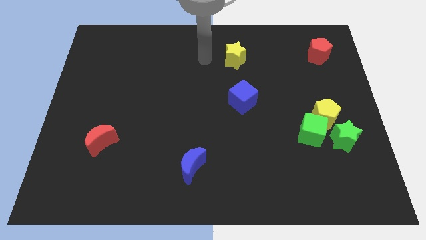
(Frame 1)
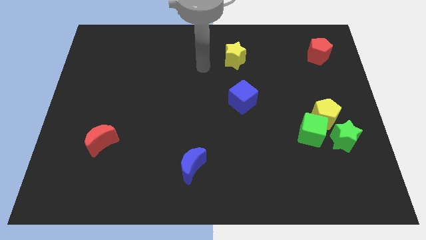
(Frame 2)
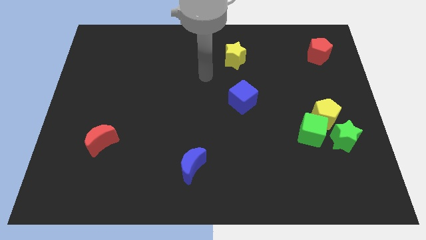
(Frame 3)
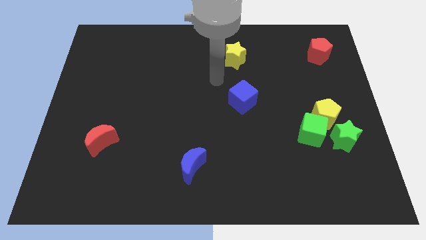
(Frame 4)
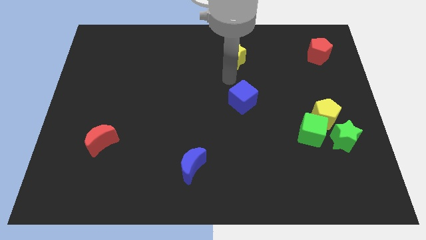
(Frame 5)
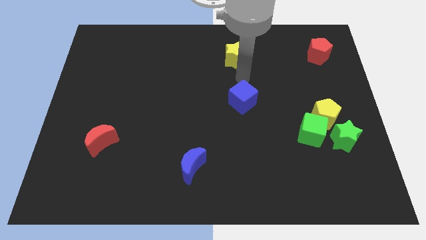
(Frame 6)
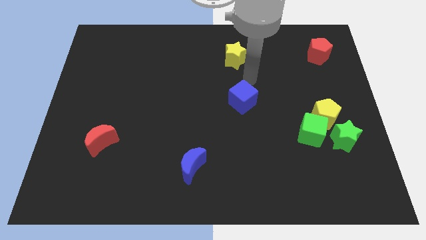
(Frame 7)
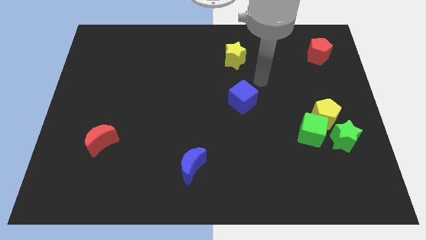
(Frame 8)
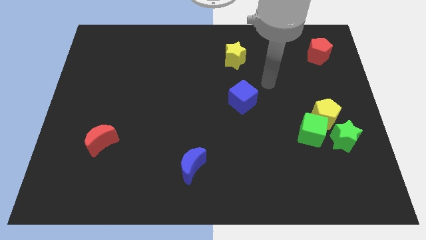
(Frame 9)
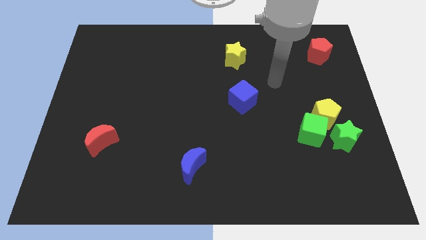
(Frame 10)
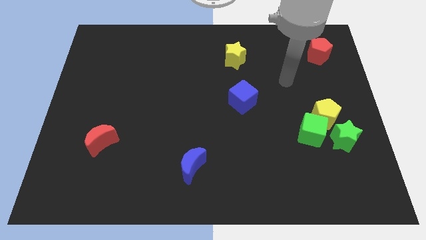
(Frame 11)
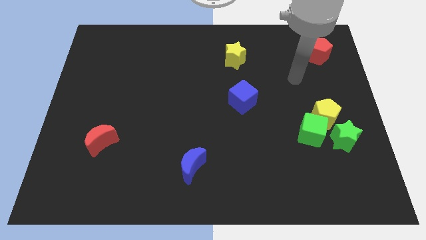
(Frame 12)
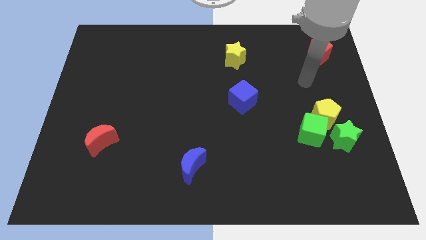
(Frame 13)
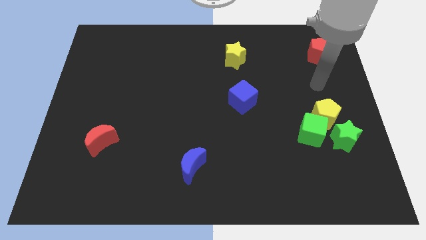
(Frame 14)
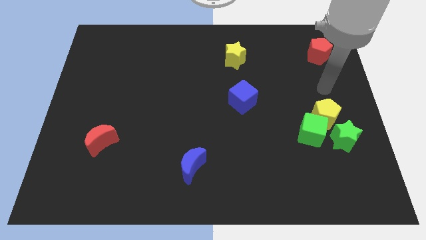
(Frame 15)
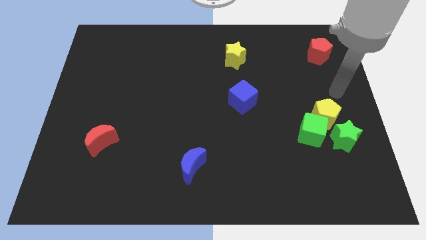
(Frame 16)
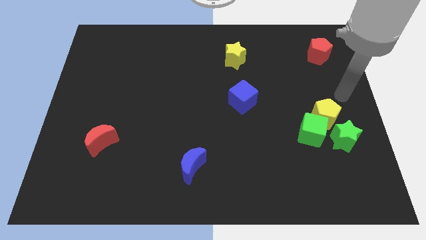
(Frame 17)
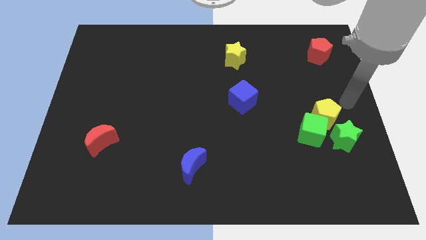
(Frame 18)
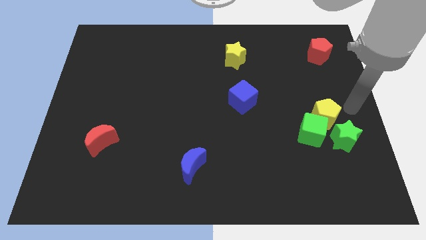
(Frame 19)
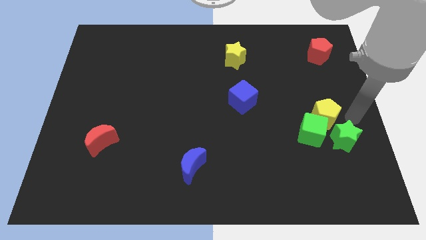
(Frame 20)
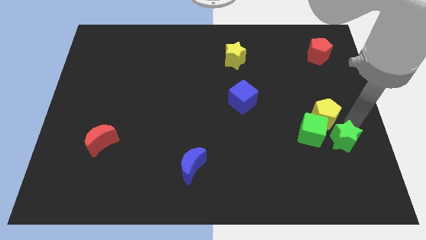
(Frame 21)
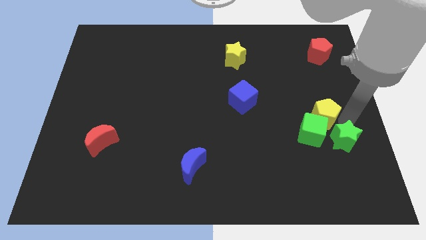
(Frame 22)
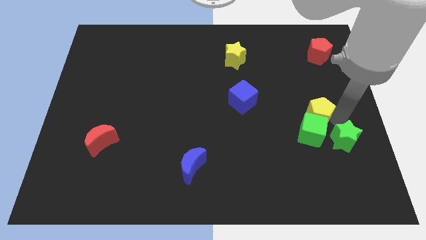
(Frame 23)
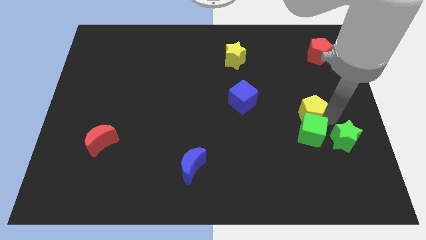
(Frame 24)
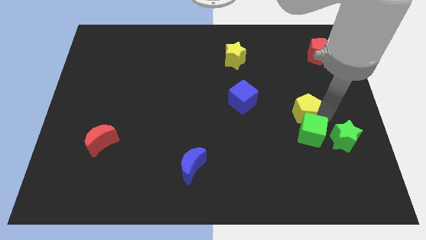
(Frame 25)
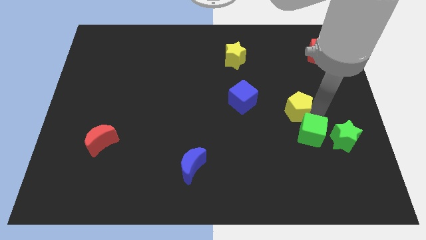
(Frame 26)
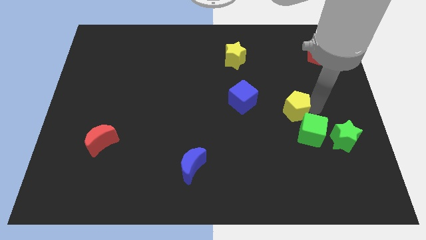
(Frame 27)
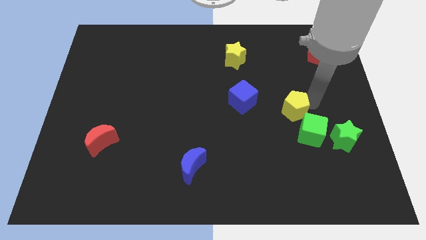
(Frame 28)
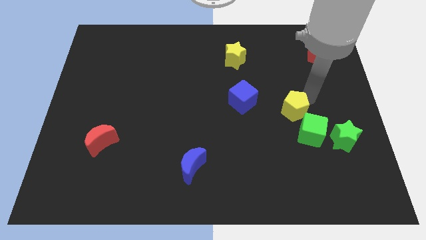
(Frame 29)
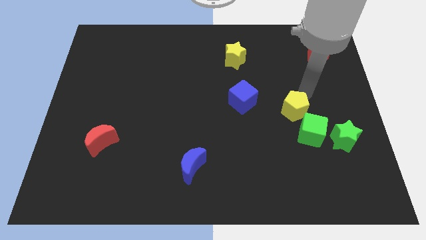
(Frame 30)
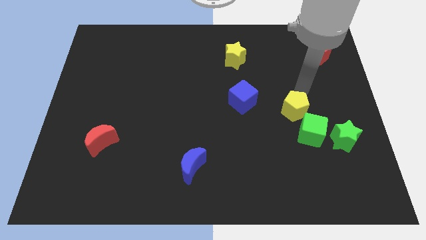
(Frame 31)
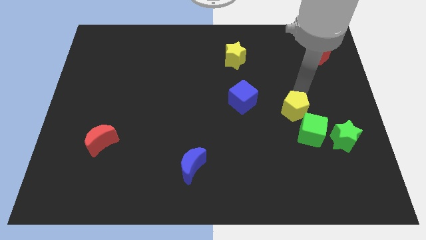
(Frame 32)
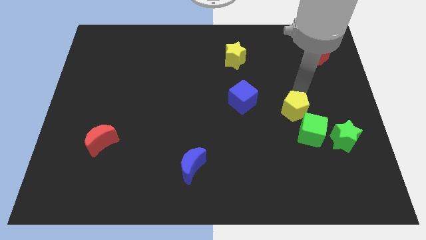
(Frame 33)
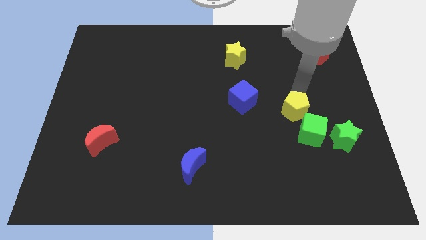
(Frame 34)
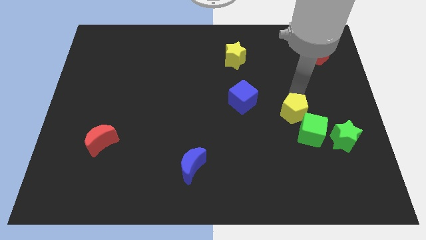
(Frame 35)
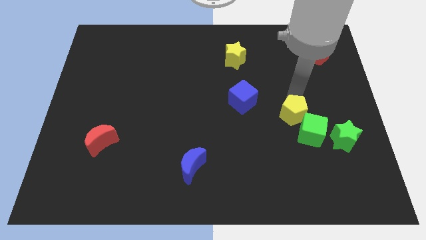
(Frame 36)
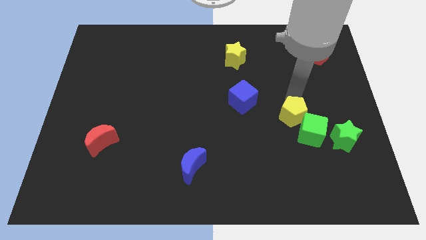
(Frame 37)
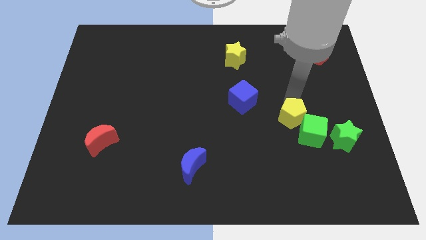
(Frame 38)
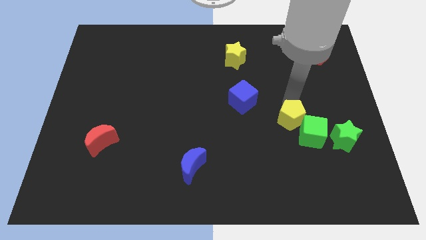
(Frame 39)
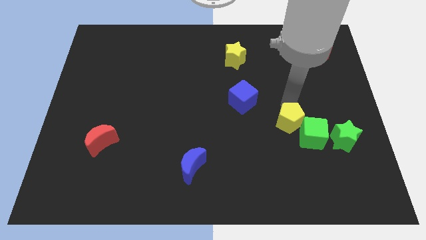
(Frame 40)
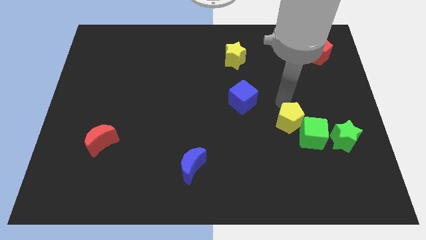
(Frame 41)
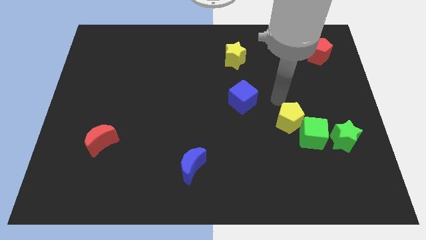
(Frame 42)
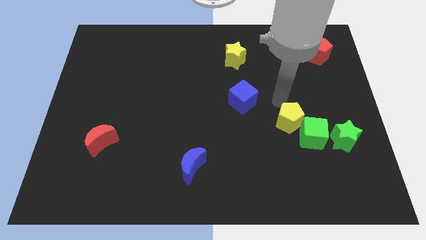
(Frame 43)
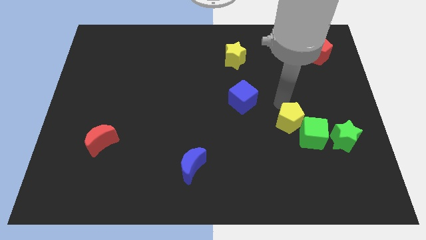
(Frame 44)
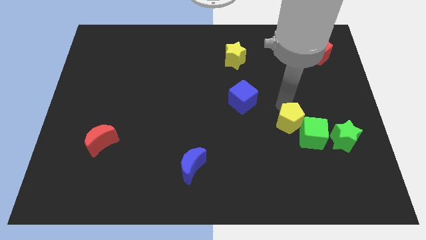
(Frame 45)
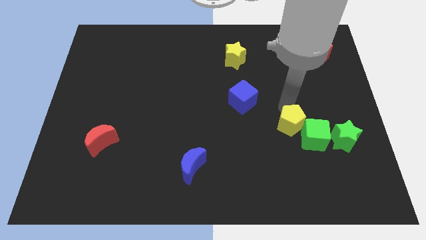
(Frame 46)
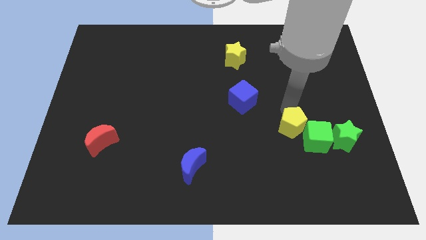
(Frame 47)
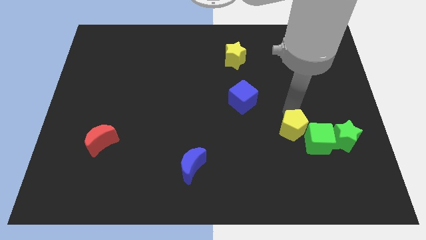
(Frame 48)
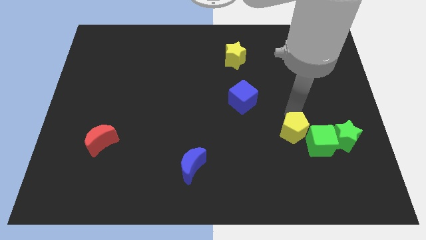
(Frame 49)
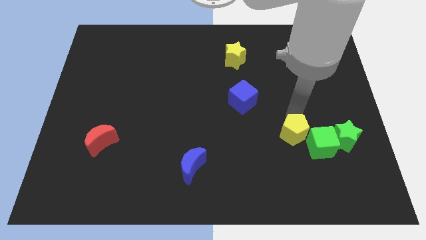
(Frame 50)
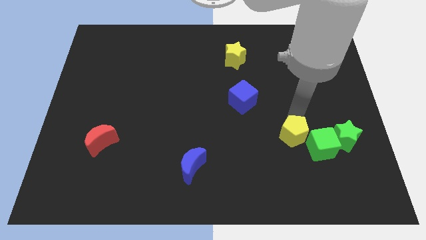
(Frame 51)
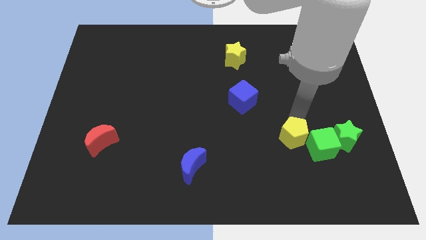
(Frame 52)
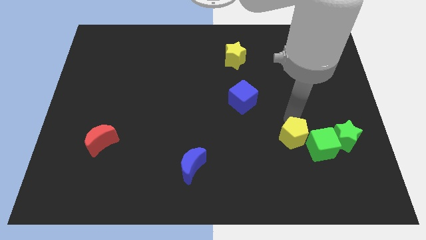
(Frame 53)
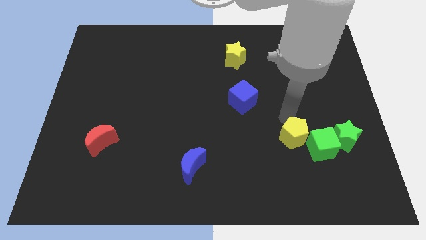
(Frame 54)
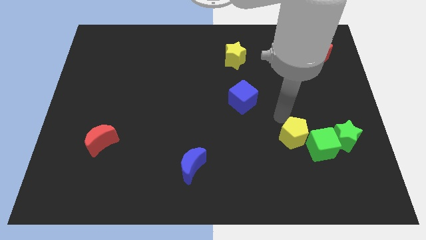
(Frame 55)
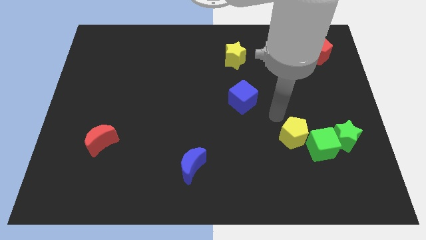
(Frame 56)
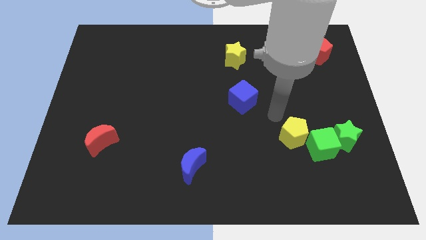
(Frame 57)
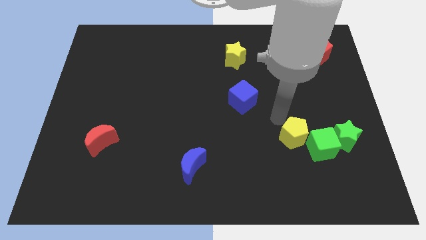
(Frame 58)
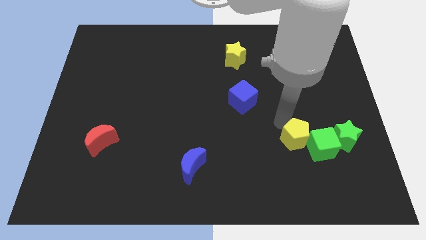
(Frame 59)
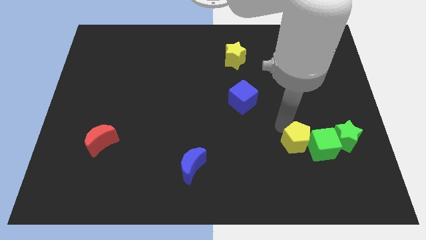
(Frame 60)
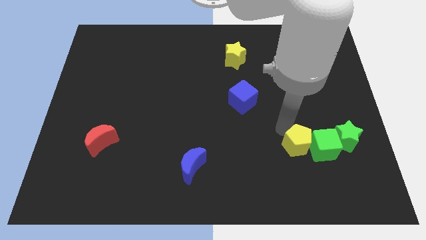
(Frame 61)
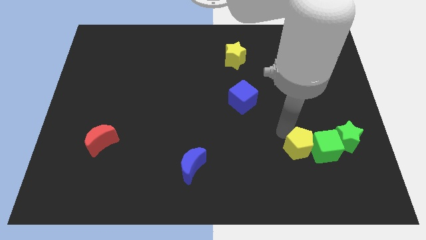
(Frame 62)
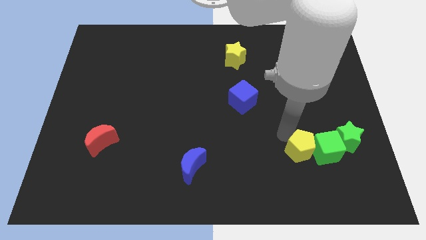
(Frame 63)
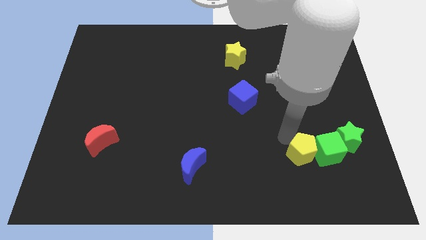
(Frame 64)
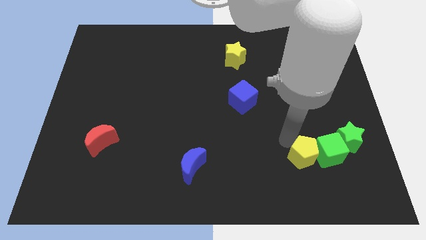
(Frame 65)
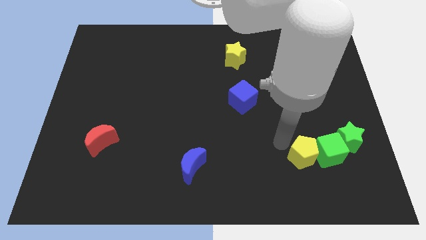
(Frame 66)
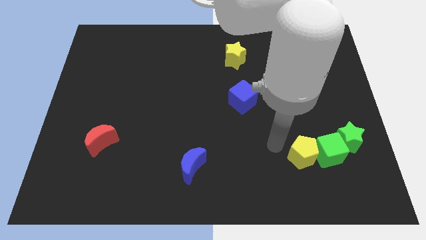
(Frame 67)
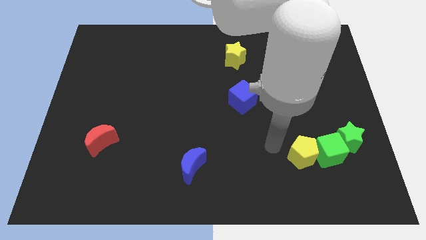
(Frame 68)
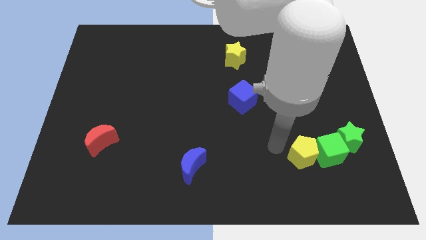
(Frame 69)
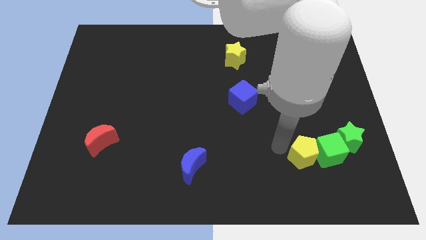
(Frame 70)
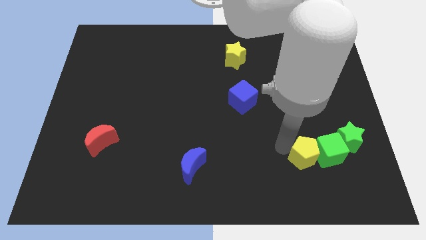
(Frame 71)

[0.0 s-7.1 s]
move the yellow pentagon to the bottom left side of the green star

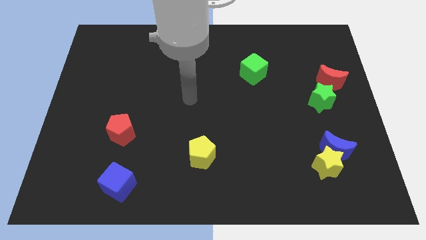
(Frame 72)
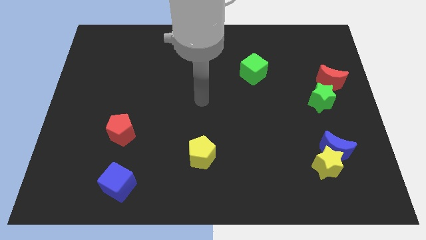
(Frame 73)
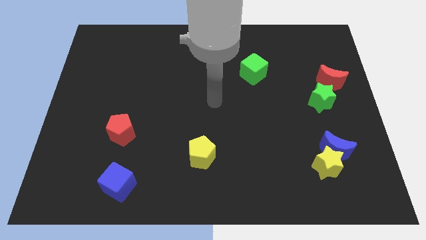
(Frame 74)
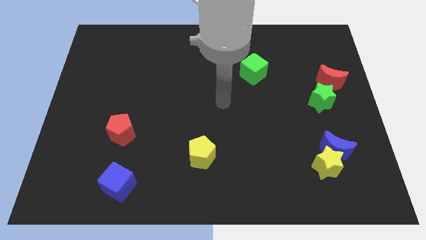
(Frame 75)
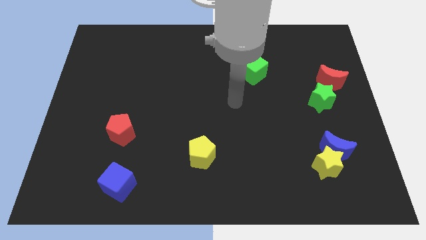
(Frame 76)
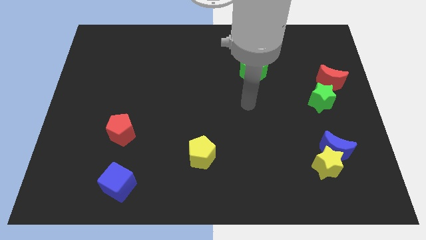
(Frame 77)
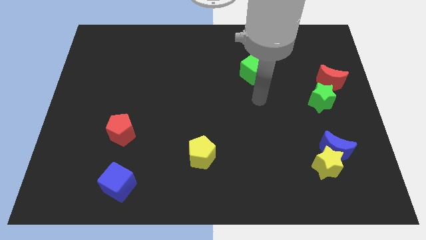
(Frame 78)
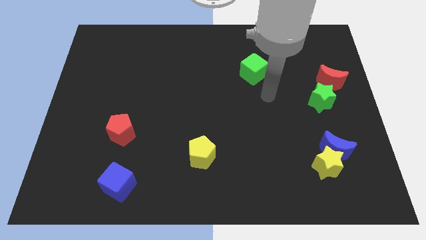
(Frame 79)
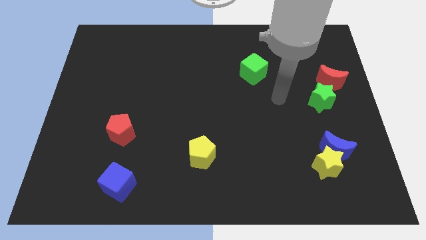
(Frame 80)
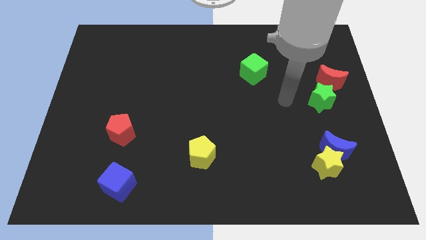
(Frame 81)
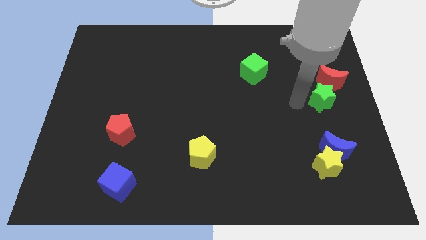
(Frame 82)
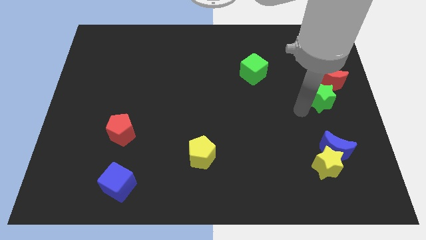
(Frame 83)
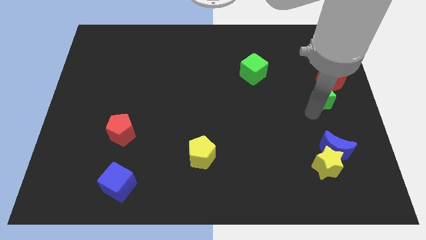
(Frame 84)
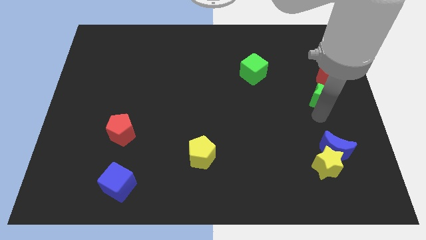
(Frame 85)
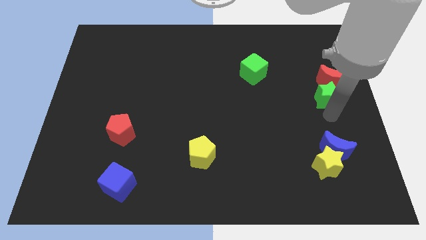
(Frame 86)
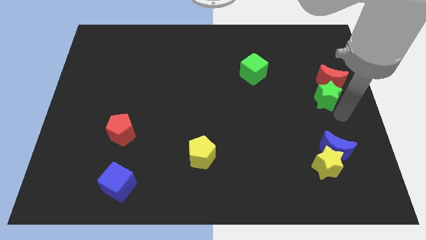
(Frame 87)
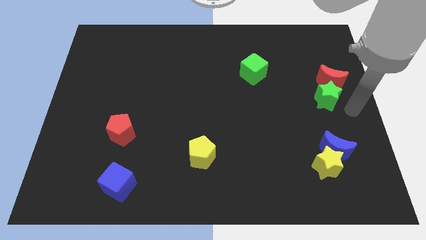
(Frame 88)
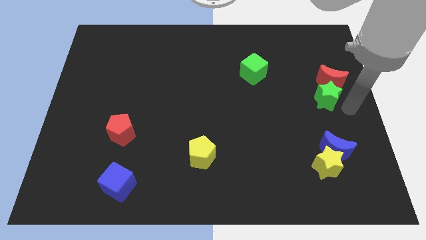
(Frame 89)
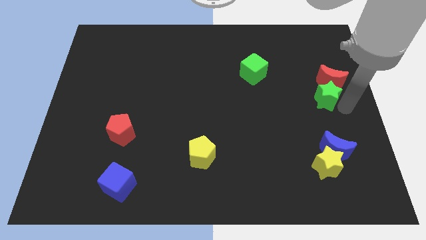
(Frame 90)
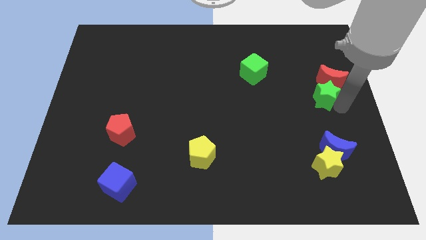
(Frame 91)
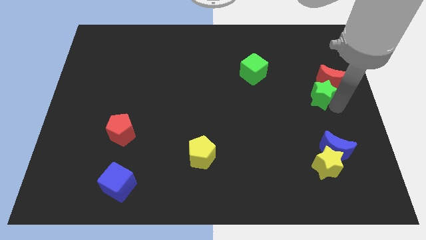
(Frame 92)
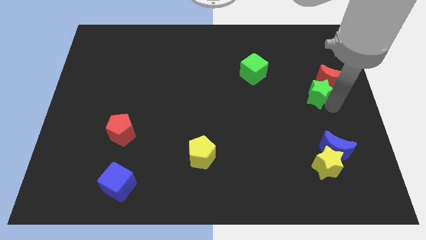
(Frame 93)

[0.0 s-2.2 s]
push the green star just left of the red moon
